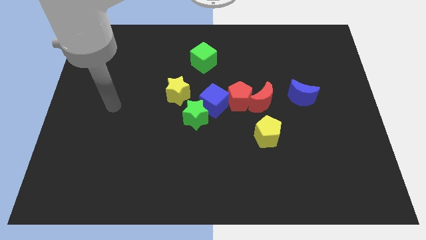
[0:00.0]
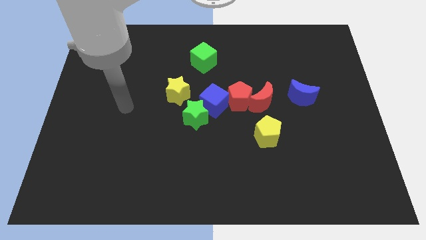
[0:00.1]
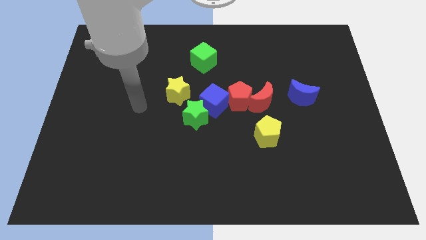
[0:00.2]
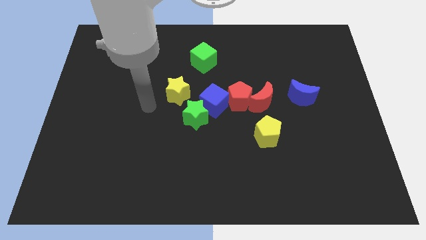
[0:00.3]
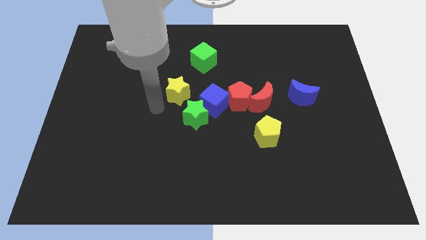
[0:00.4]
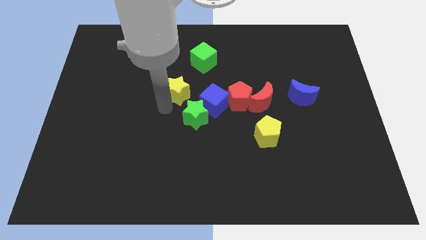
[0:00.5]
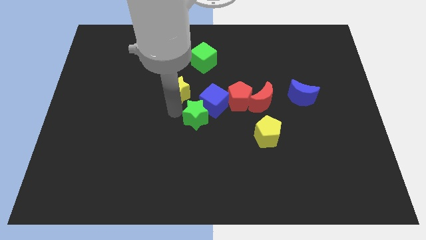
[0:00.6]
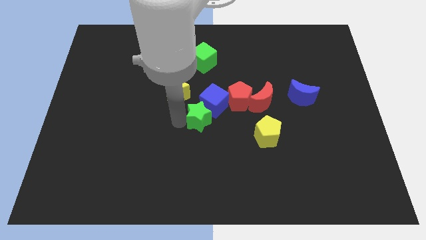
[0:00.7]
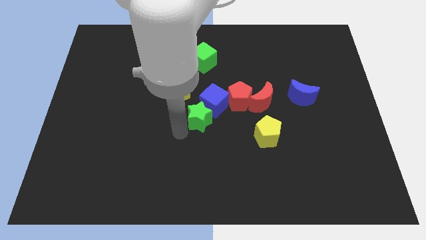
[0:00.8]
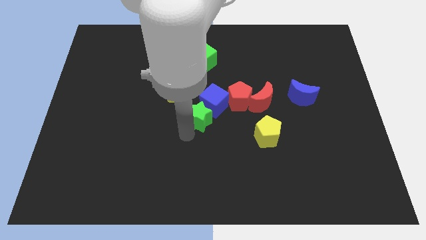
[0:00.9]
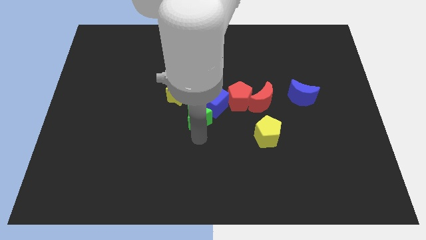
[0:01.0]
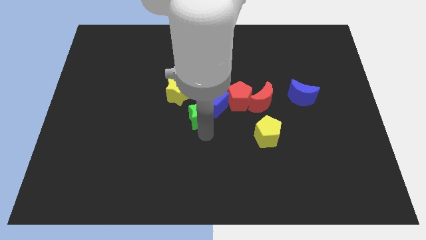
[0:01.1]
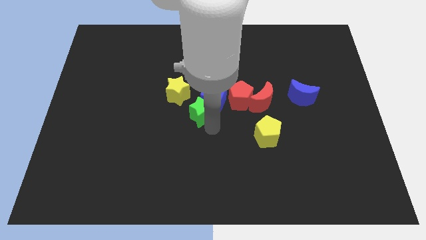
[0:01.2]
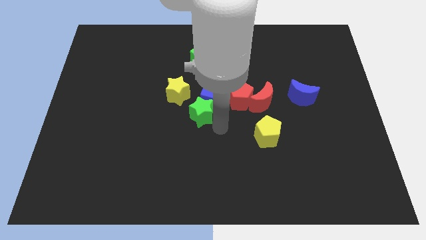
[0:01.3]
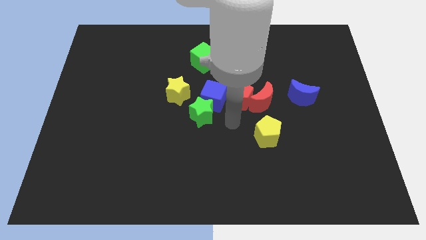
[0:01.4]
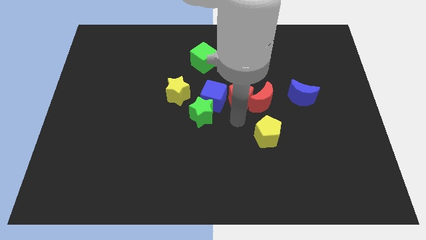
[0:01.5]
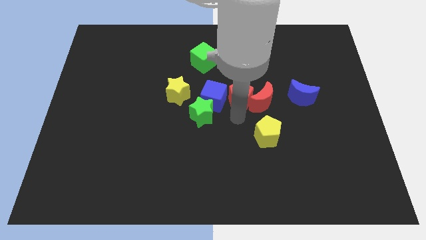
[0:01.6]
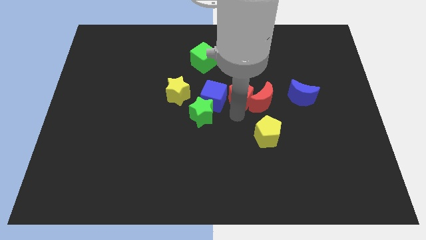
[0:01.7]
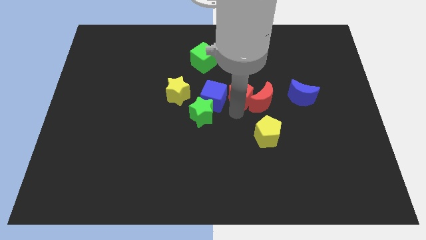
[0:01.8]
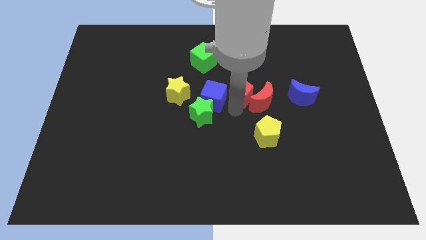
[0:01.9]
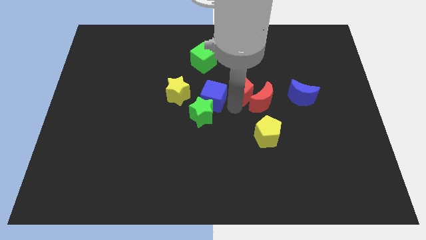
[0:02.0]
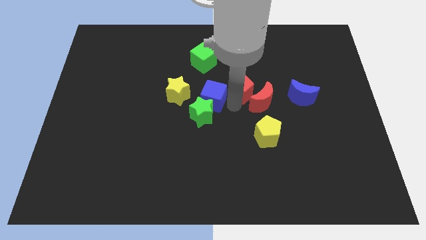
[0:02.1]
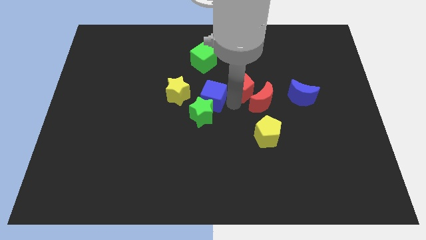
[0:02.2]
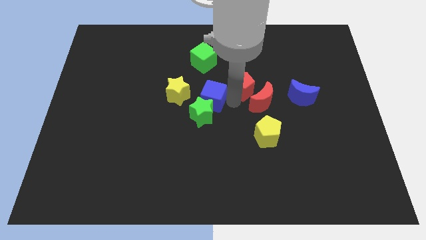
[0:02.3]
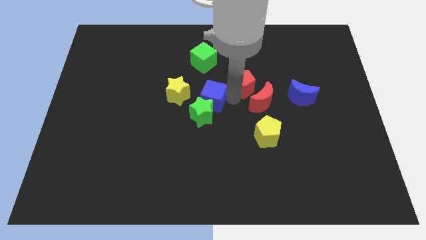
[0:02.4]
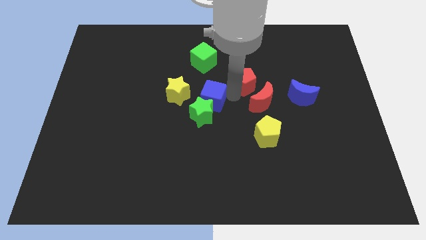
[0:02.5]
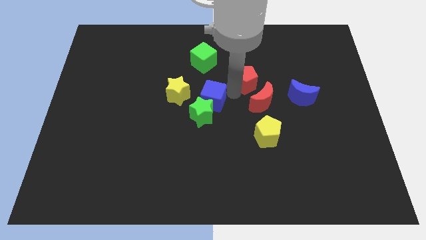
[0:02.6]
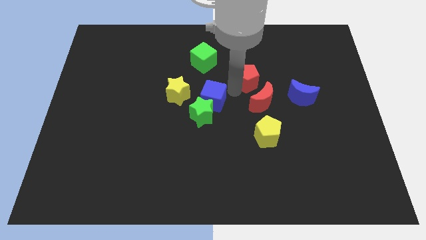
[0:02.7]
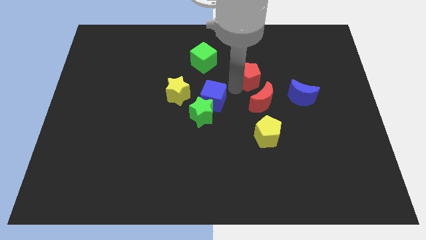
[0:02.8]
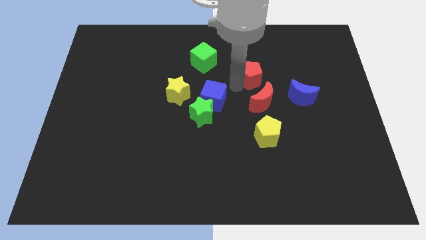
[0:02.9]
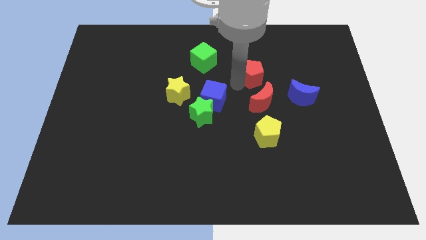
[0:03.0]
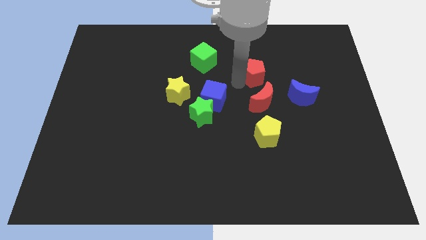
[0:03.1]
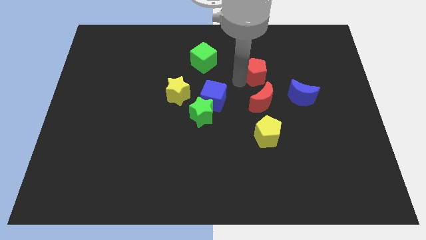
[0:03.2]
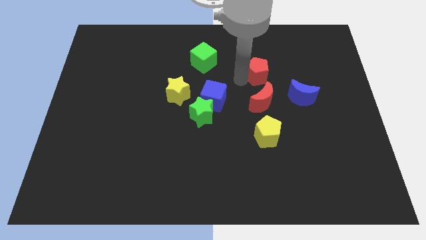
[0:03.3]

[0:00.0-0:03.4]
move the red pentagon away from the red moon and blue cube

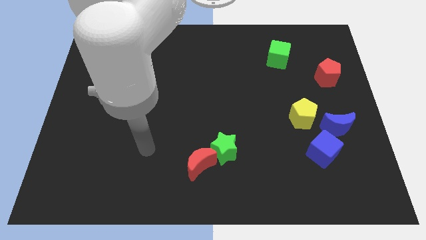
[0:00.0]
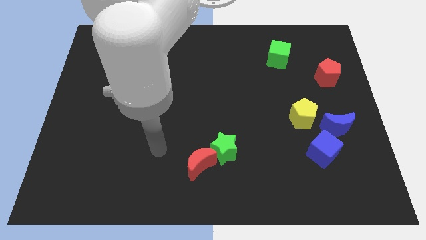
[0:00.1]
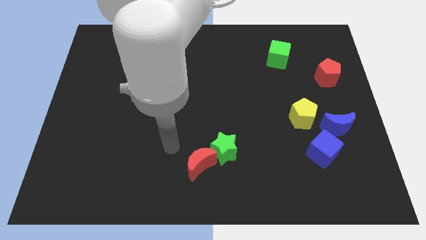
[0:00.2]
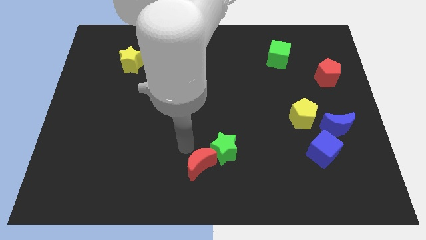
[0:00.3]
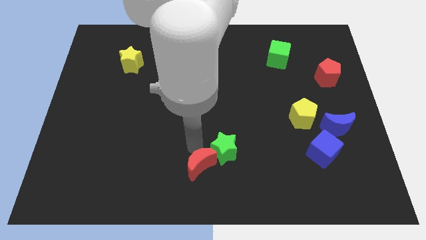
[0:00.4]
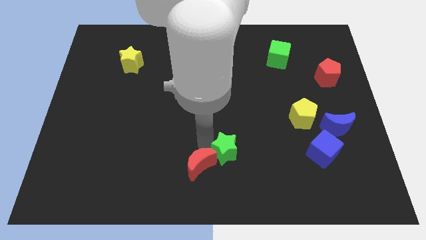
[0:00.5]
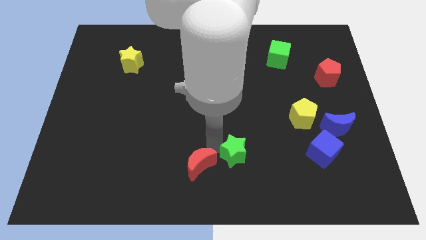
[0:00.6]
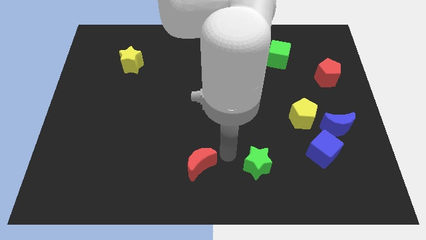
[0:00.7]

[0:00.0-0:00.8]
separate the red moon from the green star

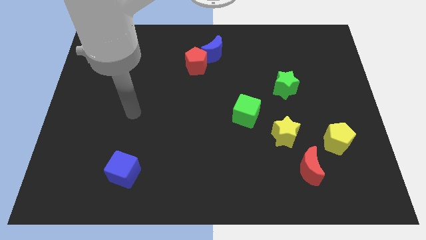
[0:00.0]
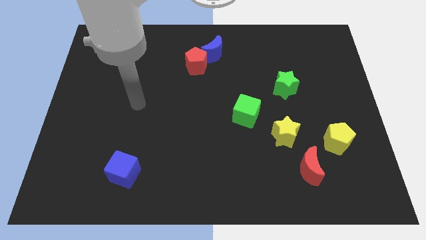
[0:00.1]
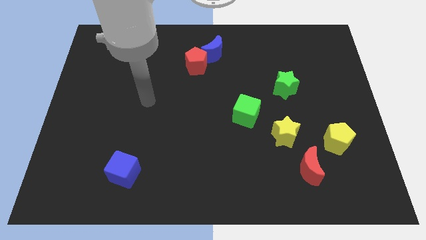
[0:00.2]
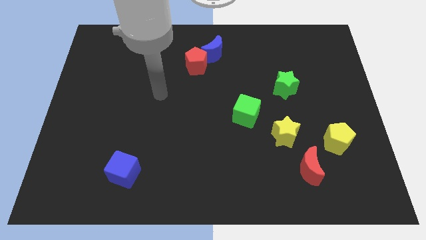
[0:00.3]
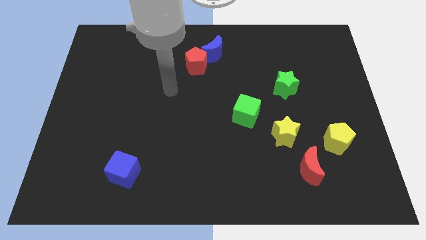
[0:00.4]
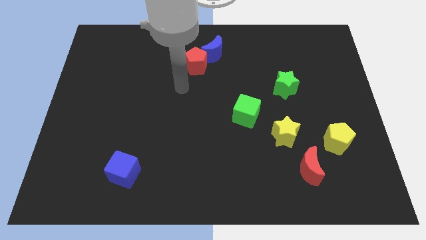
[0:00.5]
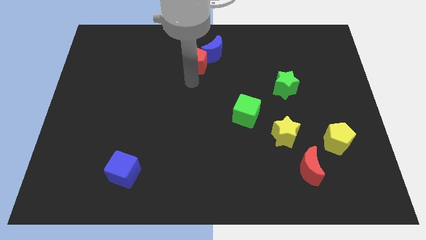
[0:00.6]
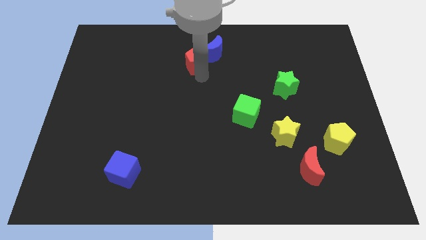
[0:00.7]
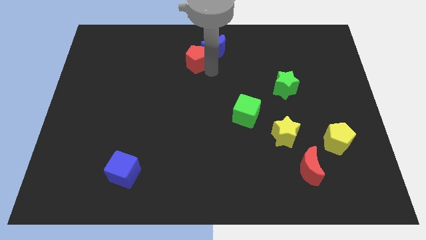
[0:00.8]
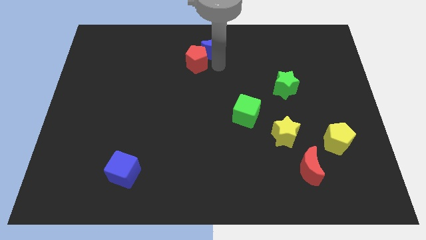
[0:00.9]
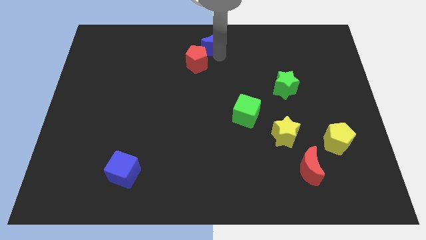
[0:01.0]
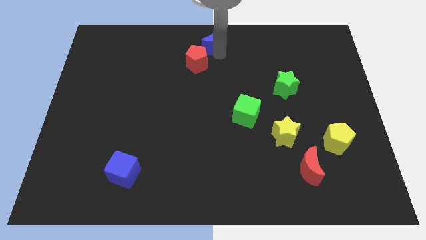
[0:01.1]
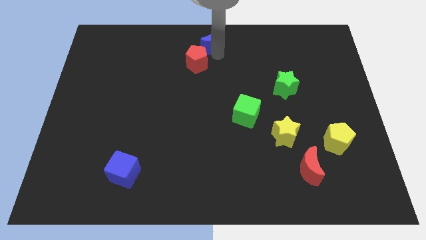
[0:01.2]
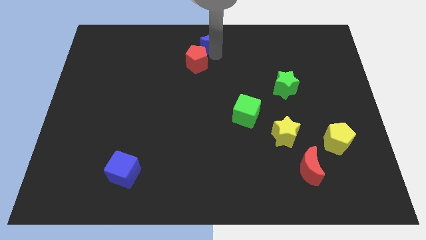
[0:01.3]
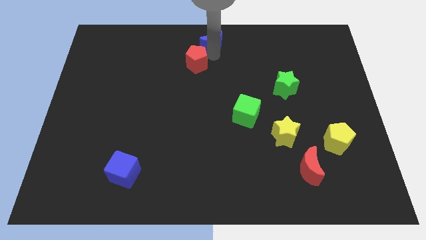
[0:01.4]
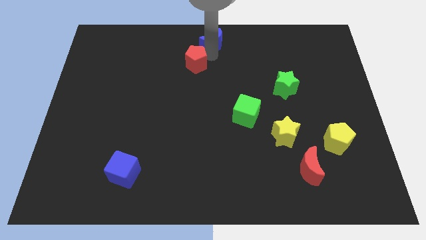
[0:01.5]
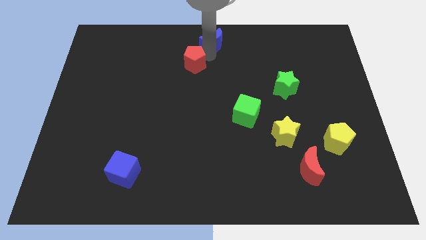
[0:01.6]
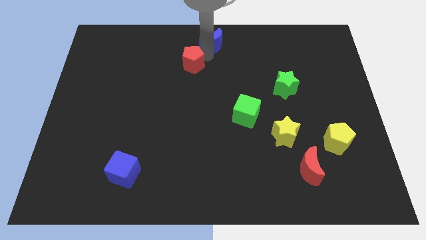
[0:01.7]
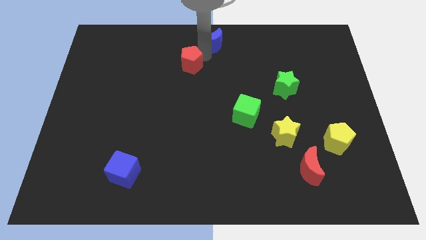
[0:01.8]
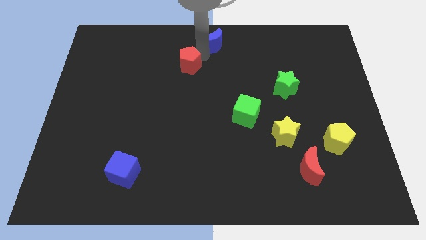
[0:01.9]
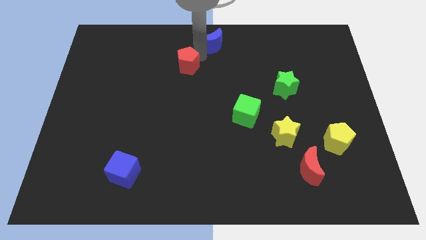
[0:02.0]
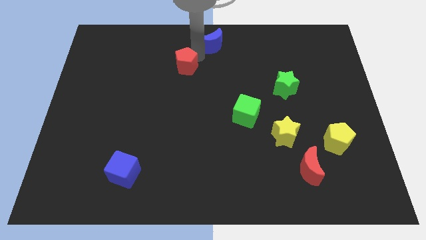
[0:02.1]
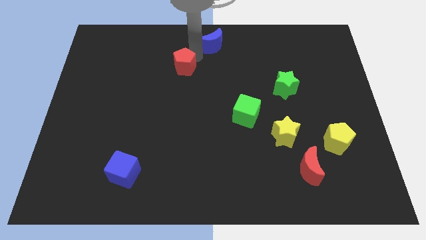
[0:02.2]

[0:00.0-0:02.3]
move the red pentagon away from the blue moon

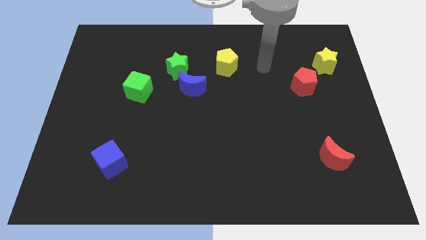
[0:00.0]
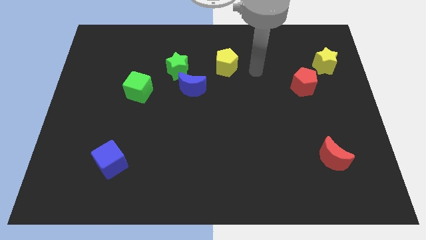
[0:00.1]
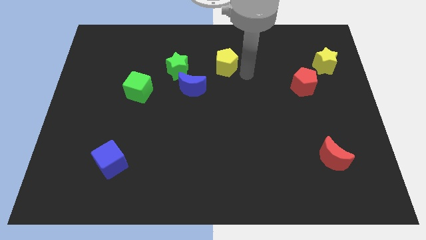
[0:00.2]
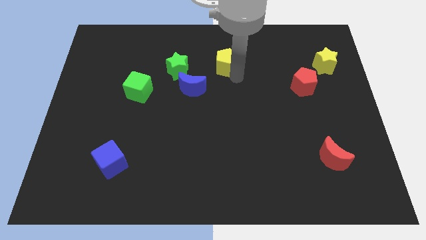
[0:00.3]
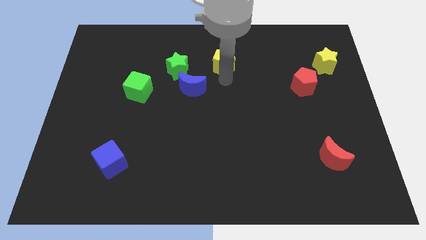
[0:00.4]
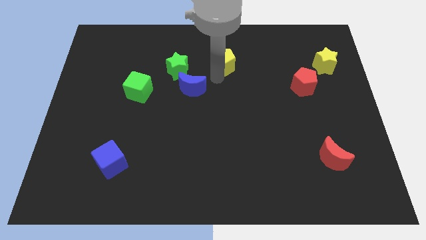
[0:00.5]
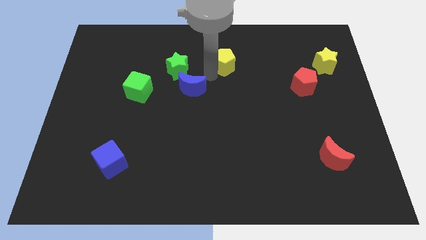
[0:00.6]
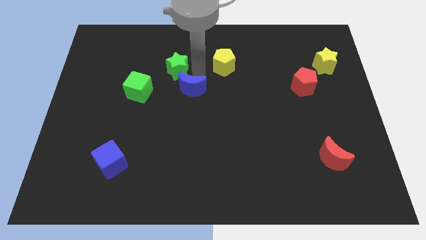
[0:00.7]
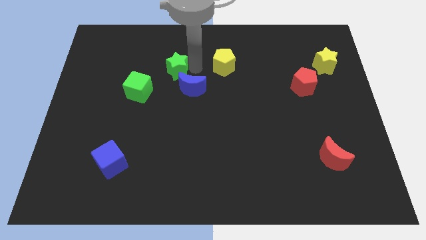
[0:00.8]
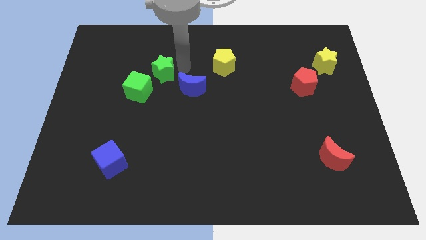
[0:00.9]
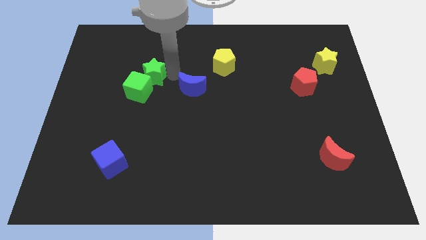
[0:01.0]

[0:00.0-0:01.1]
separate the blue moon from the green star

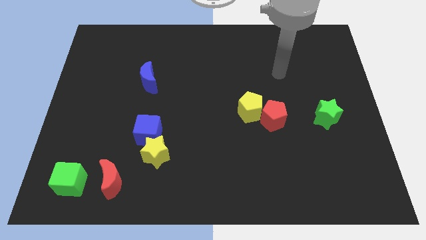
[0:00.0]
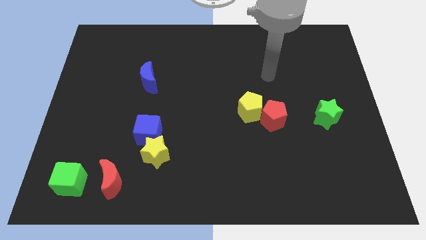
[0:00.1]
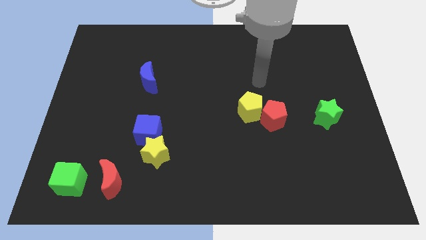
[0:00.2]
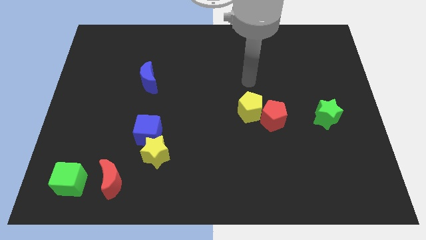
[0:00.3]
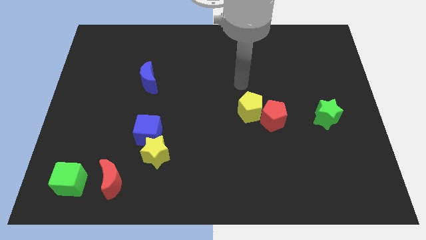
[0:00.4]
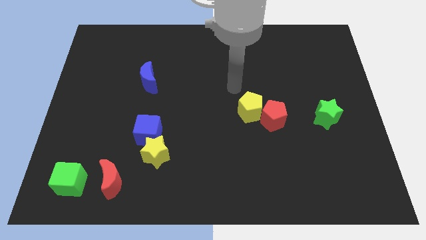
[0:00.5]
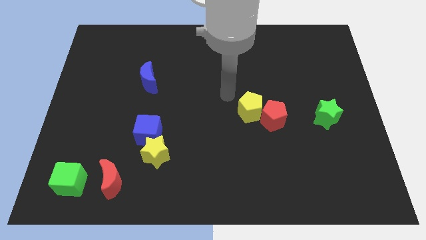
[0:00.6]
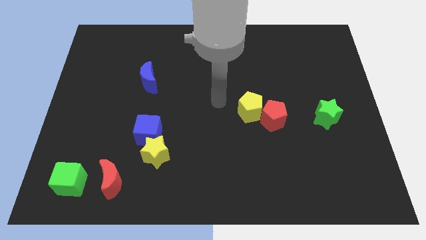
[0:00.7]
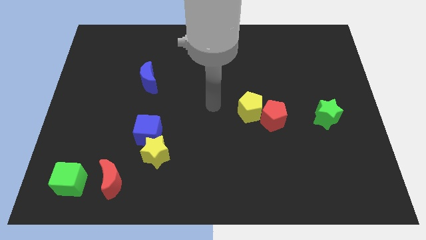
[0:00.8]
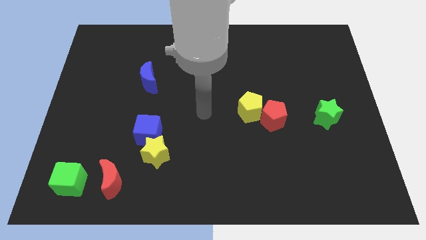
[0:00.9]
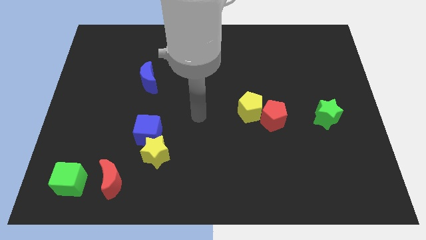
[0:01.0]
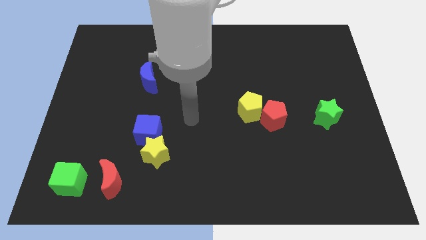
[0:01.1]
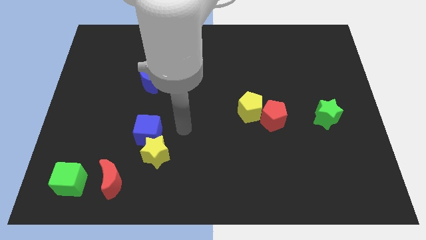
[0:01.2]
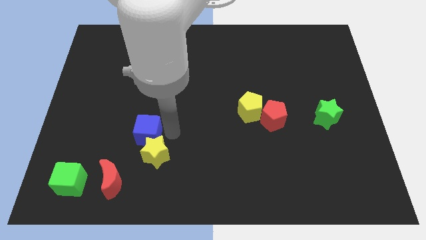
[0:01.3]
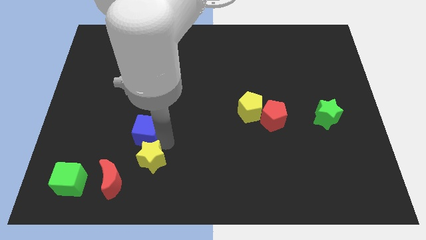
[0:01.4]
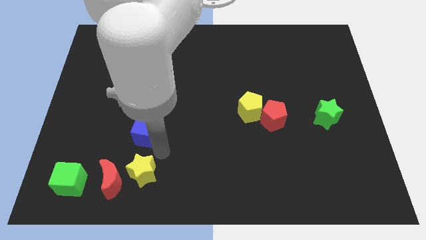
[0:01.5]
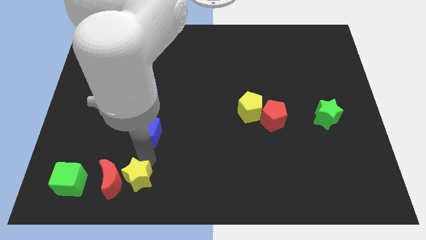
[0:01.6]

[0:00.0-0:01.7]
separate the blue cube from the yellow star
